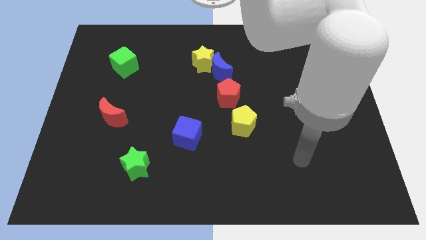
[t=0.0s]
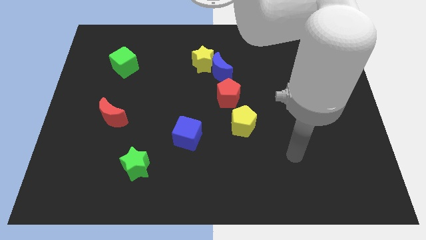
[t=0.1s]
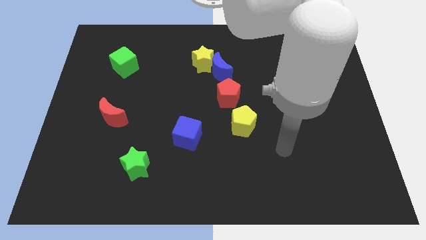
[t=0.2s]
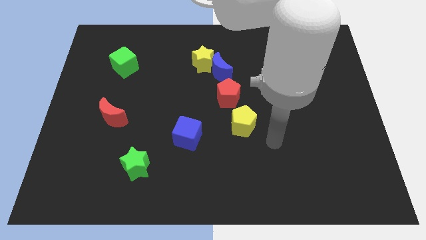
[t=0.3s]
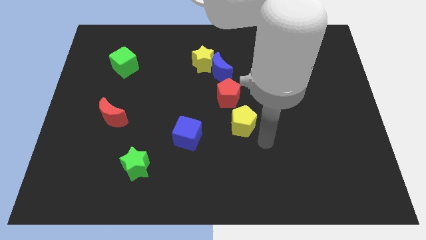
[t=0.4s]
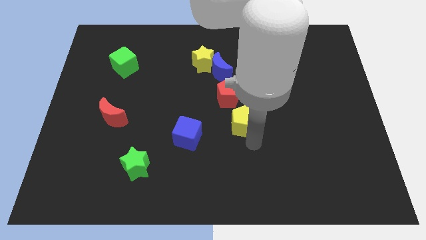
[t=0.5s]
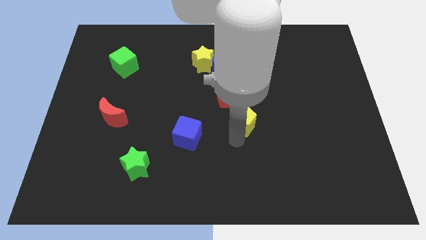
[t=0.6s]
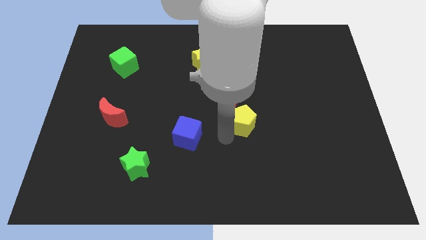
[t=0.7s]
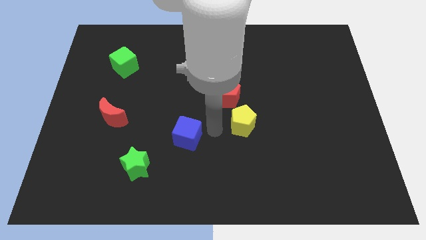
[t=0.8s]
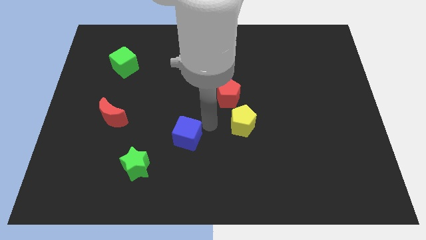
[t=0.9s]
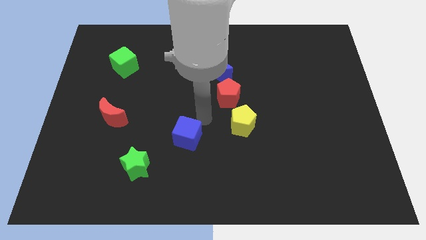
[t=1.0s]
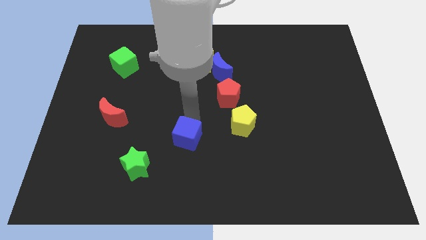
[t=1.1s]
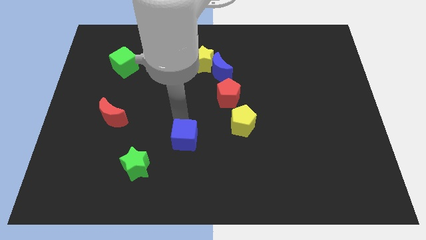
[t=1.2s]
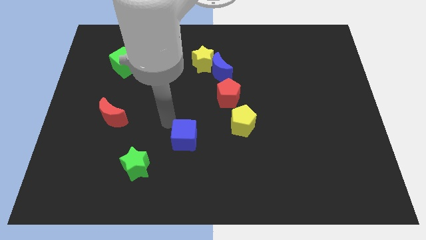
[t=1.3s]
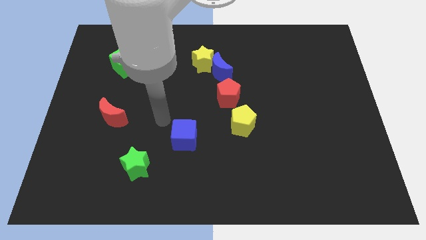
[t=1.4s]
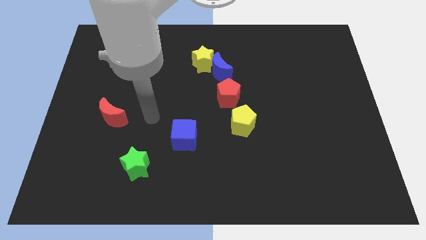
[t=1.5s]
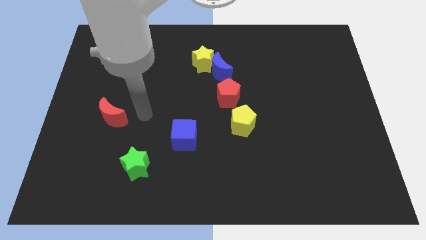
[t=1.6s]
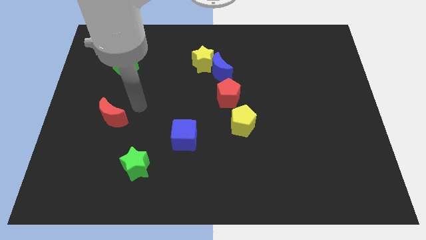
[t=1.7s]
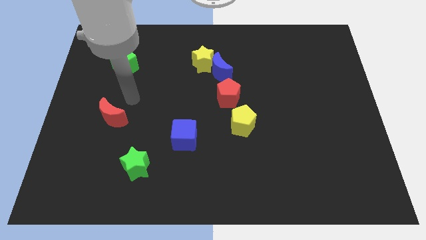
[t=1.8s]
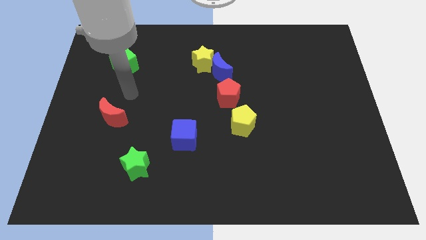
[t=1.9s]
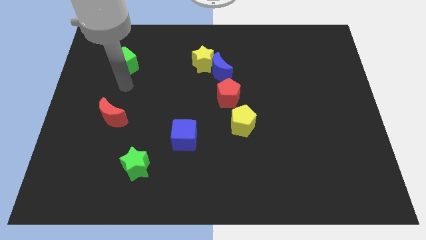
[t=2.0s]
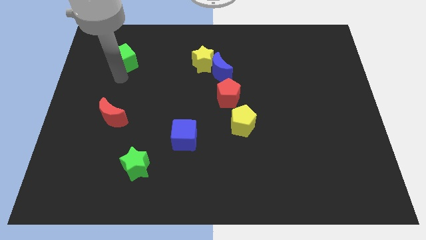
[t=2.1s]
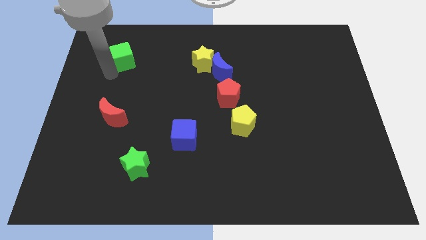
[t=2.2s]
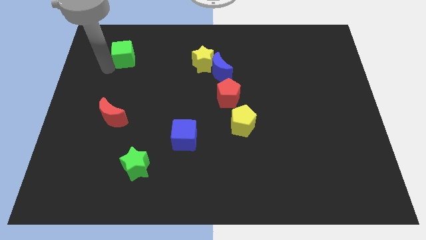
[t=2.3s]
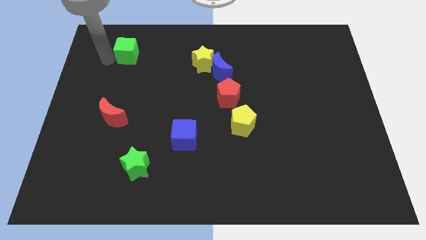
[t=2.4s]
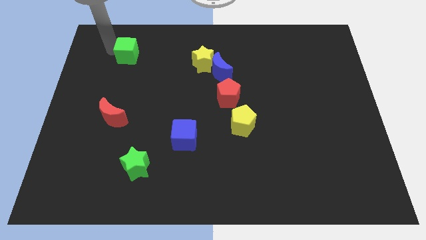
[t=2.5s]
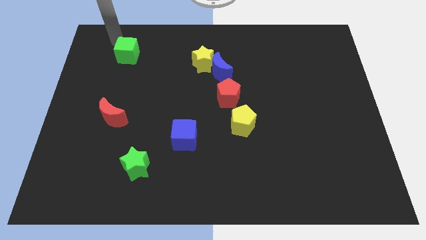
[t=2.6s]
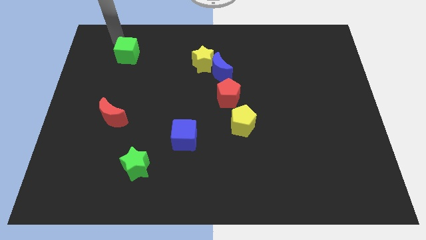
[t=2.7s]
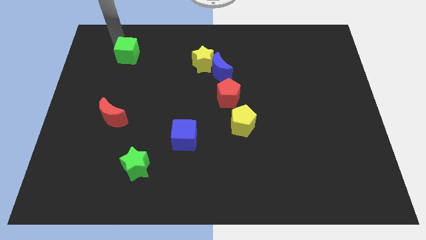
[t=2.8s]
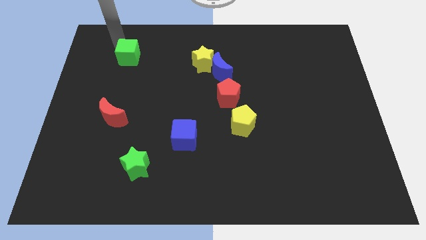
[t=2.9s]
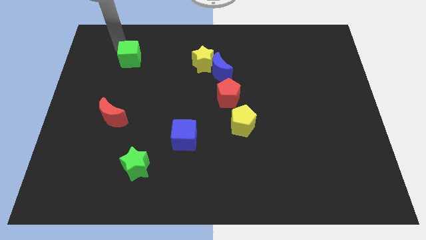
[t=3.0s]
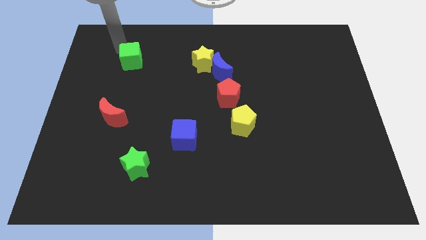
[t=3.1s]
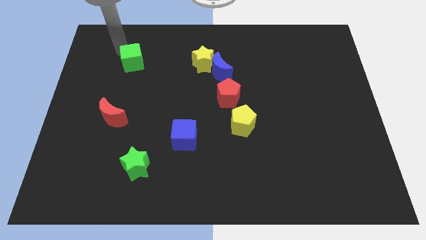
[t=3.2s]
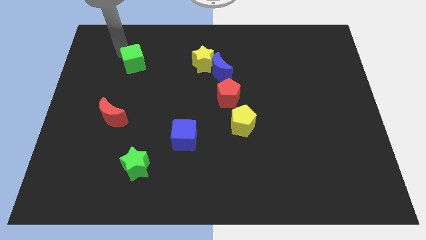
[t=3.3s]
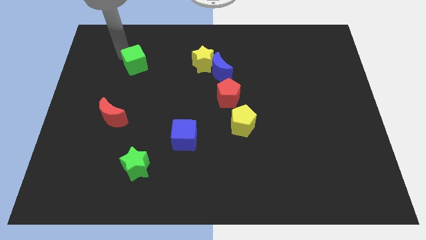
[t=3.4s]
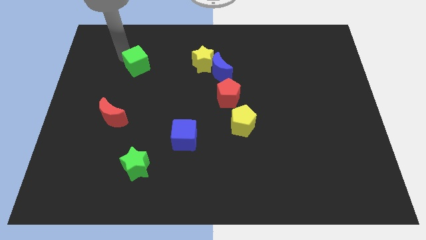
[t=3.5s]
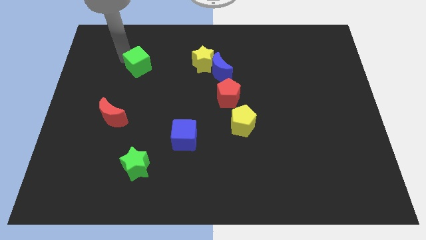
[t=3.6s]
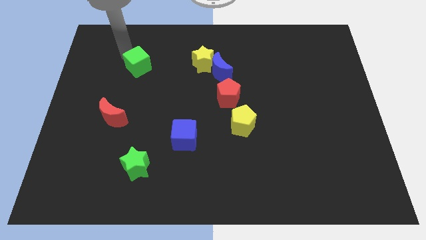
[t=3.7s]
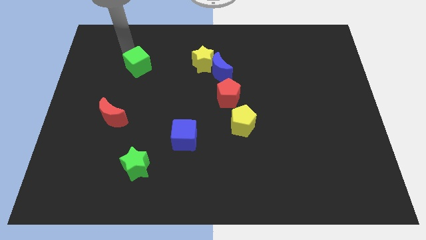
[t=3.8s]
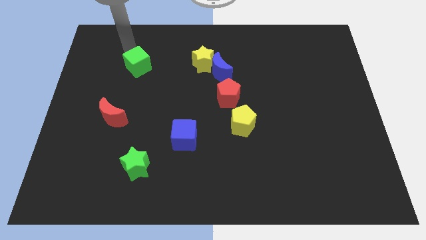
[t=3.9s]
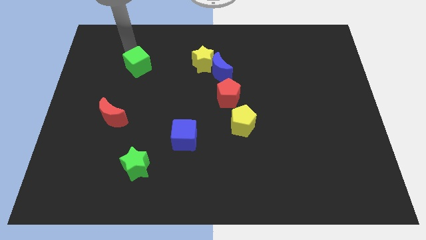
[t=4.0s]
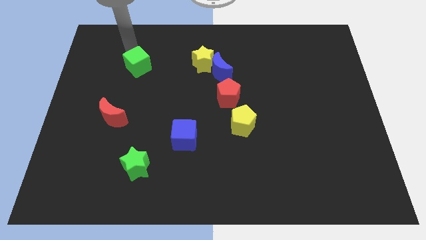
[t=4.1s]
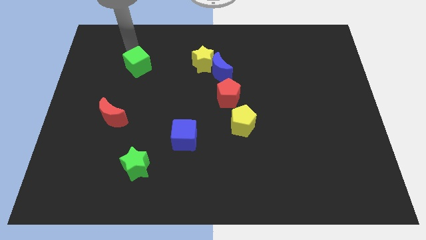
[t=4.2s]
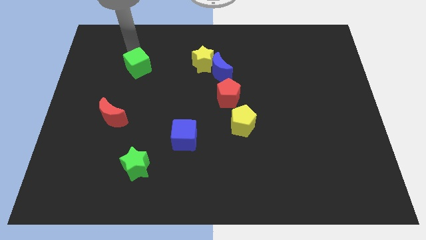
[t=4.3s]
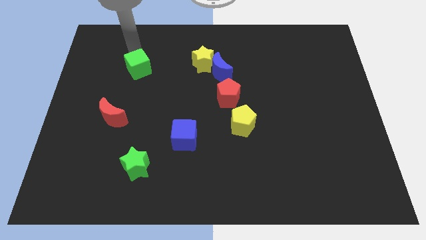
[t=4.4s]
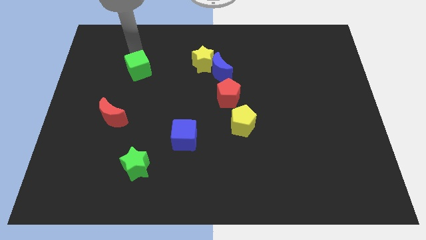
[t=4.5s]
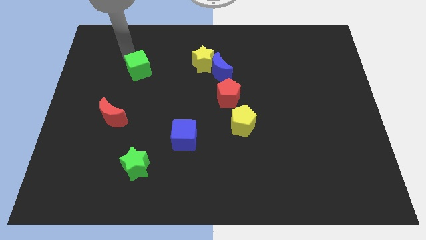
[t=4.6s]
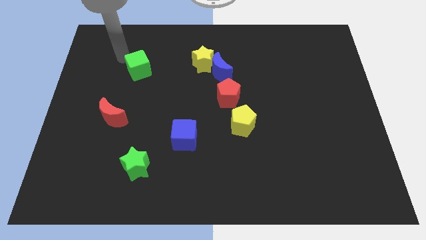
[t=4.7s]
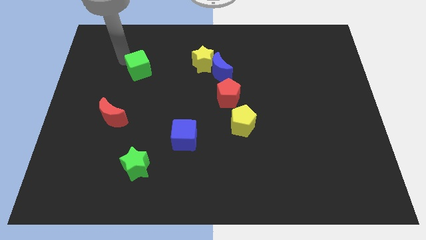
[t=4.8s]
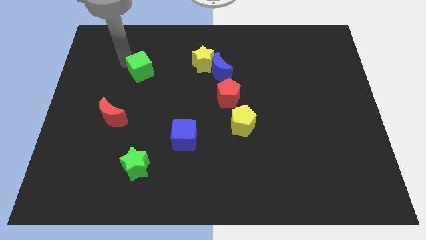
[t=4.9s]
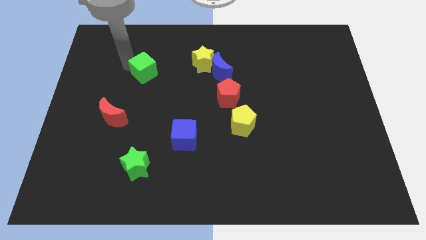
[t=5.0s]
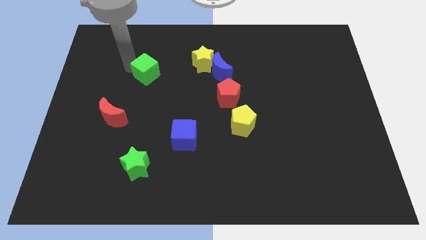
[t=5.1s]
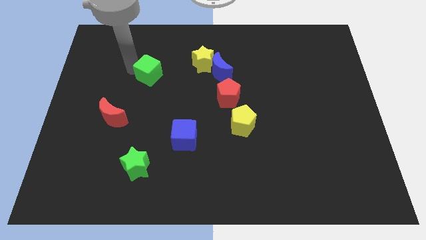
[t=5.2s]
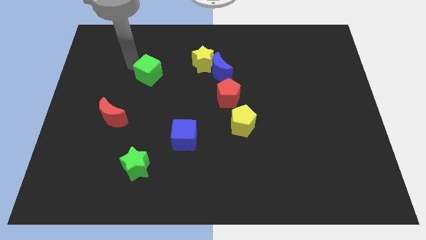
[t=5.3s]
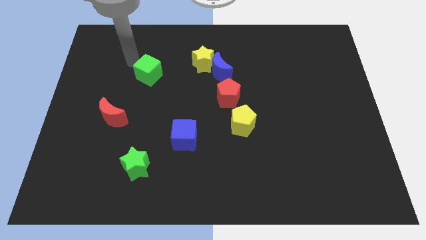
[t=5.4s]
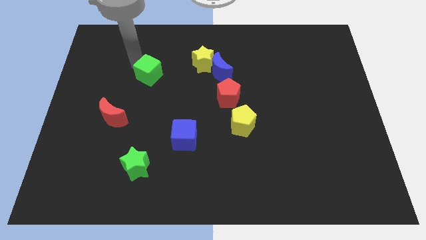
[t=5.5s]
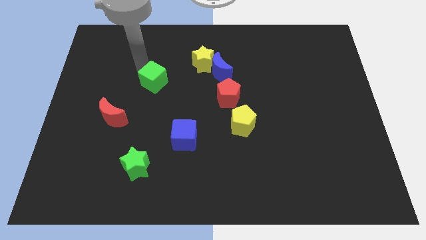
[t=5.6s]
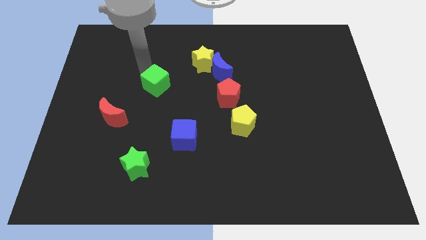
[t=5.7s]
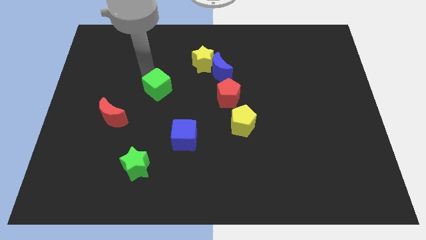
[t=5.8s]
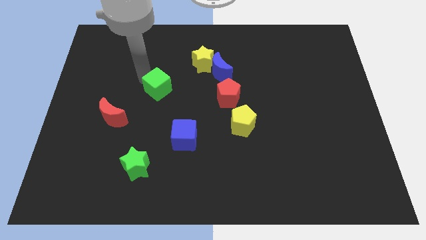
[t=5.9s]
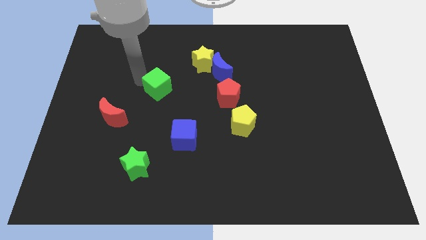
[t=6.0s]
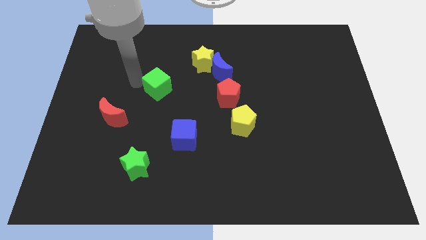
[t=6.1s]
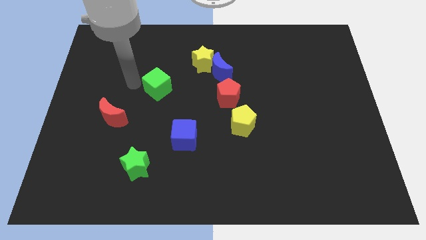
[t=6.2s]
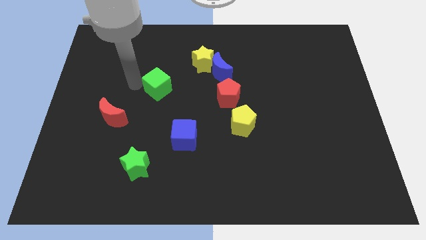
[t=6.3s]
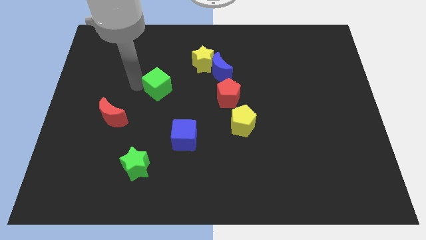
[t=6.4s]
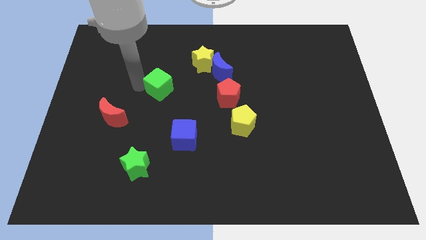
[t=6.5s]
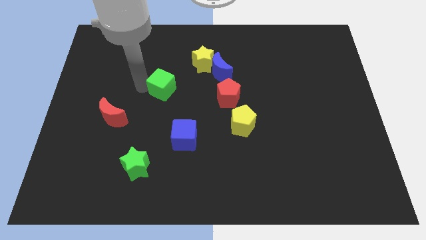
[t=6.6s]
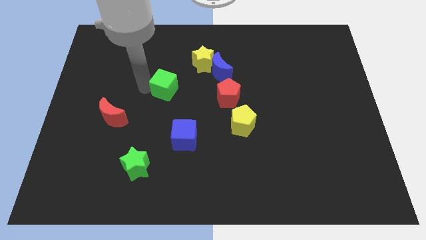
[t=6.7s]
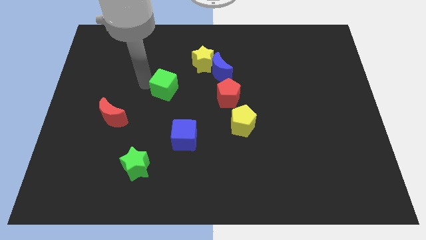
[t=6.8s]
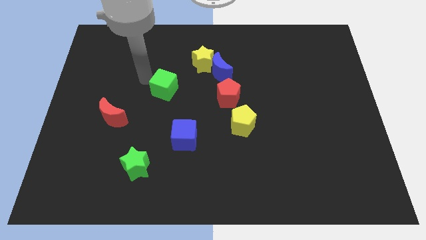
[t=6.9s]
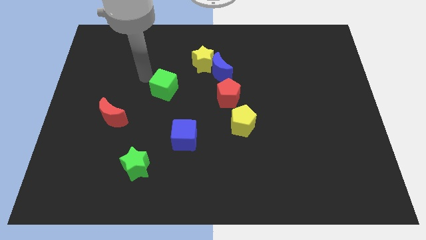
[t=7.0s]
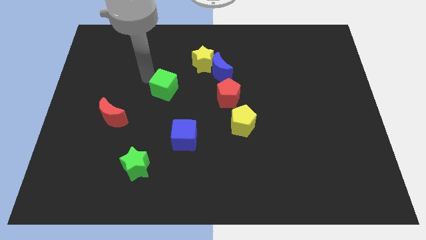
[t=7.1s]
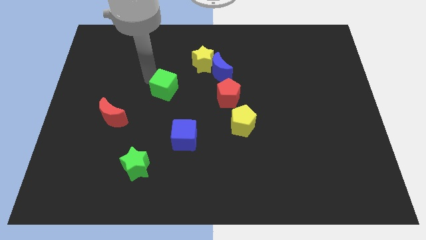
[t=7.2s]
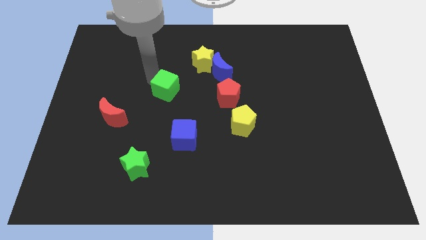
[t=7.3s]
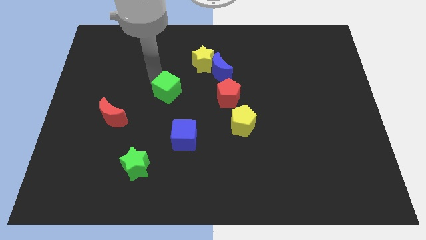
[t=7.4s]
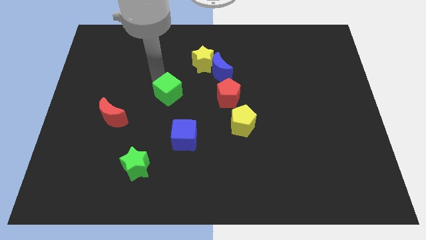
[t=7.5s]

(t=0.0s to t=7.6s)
push the green cube to the top side of the blue cube
